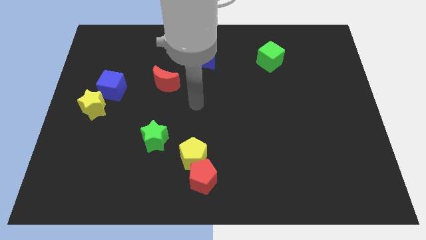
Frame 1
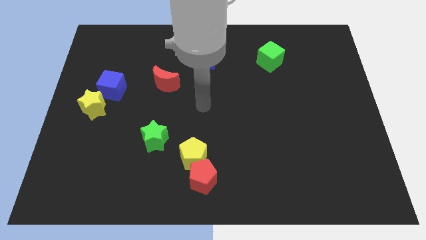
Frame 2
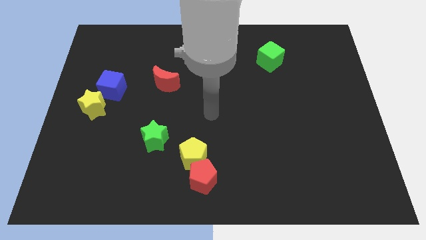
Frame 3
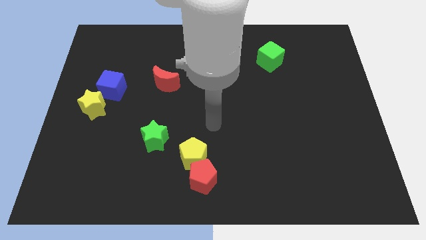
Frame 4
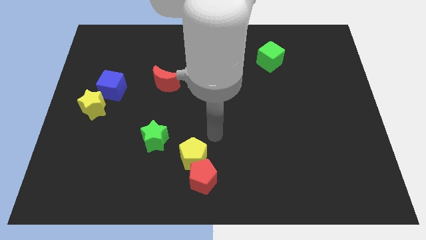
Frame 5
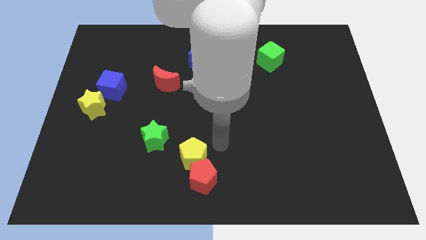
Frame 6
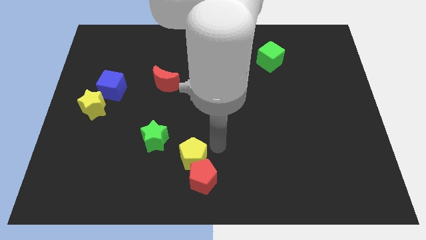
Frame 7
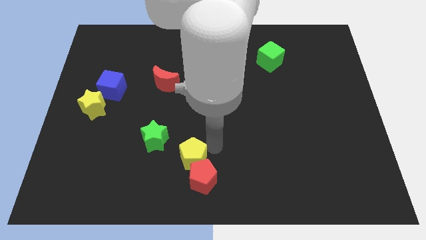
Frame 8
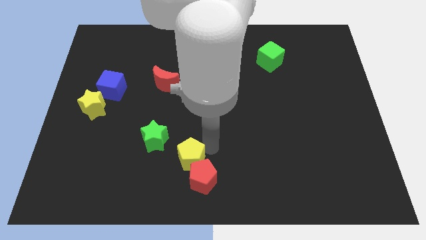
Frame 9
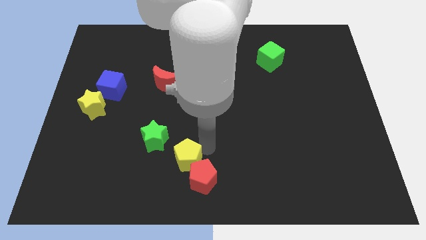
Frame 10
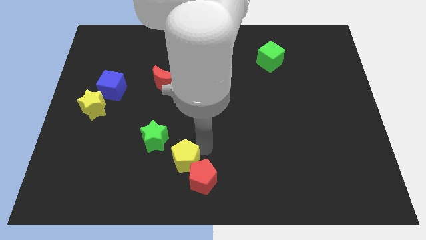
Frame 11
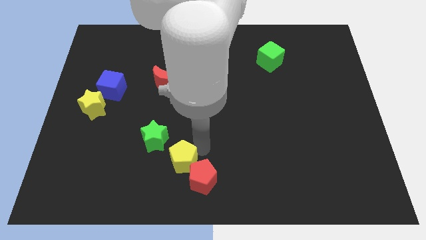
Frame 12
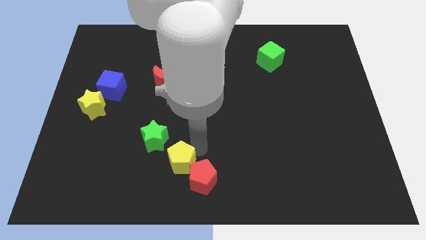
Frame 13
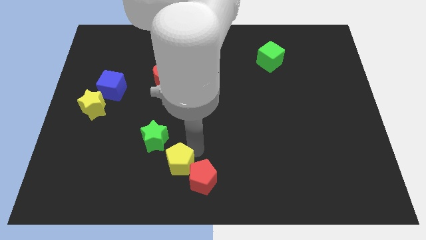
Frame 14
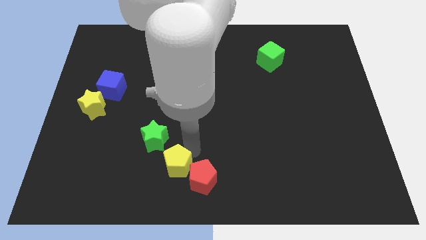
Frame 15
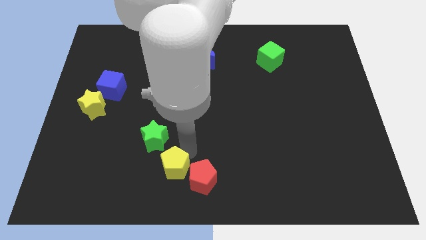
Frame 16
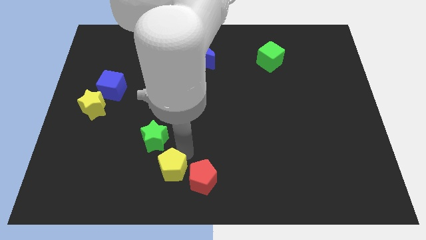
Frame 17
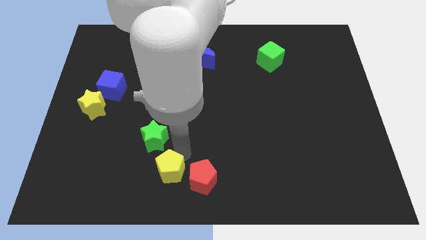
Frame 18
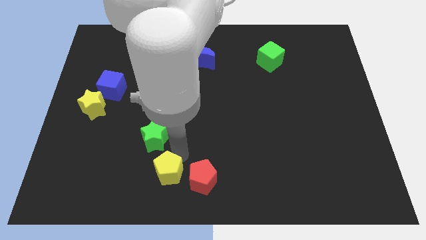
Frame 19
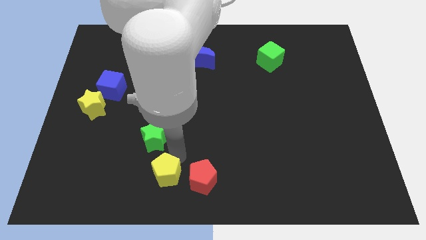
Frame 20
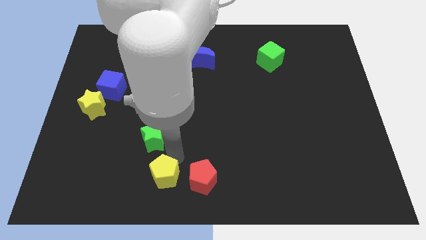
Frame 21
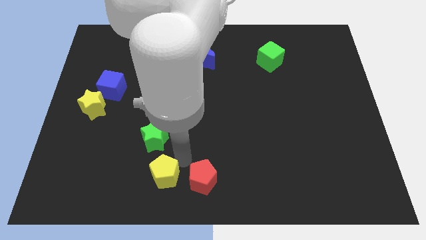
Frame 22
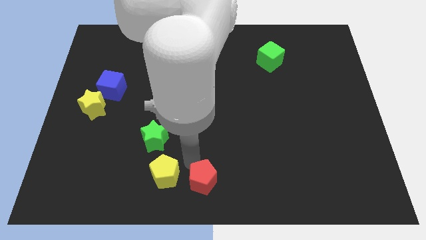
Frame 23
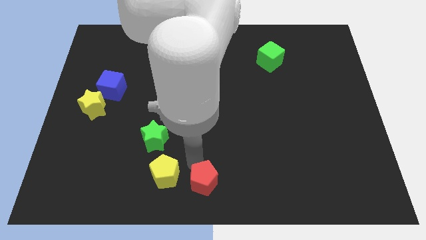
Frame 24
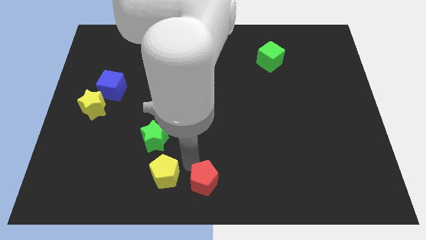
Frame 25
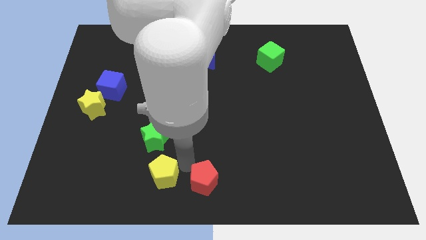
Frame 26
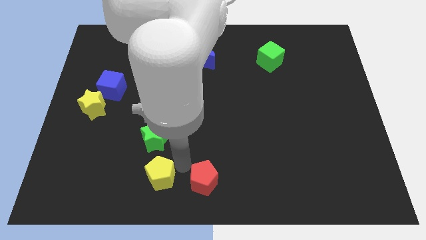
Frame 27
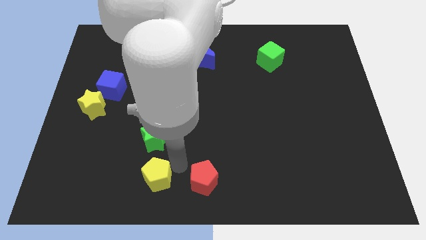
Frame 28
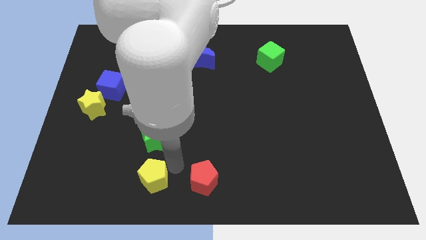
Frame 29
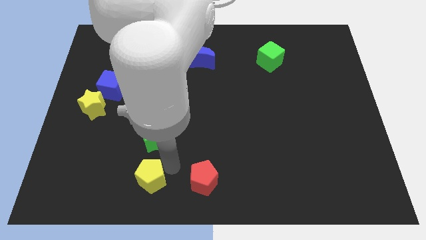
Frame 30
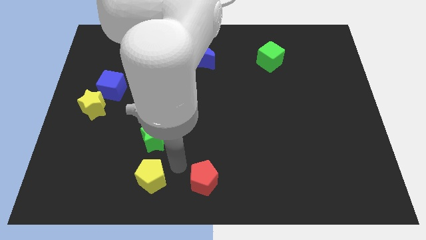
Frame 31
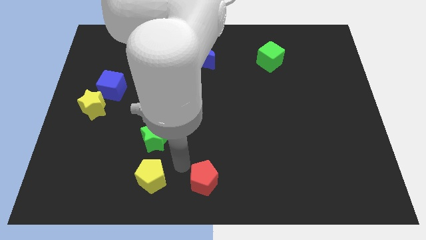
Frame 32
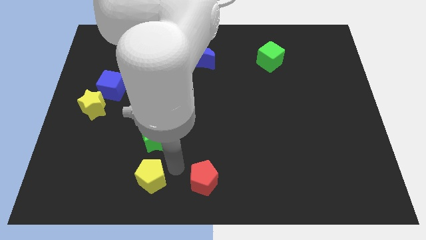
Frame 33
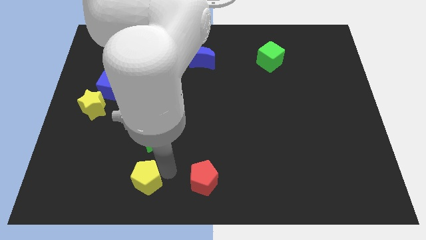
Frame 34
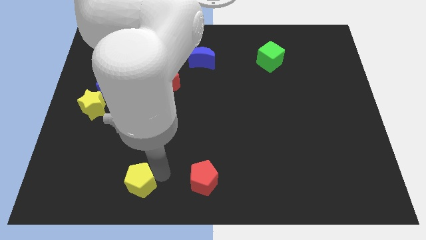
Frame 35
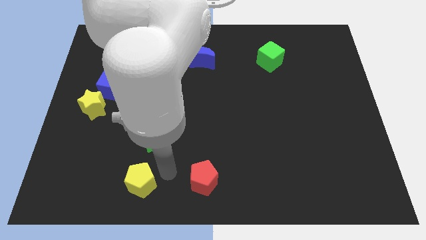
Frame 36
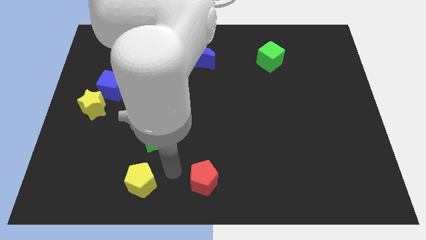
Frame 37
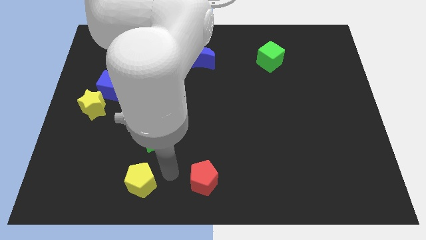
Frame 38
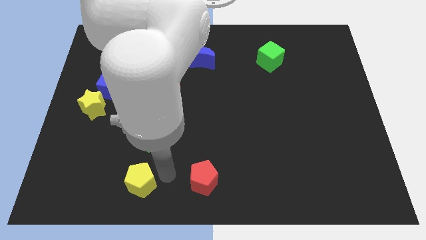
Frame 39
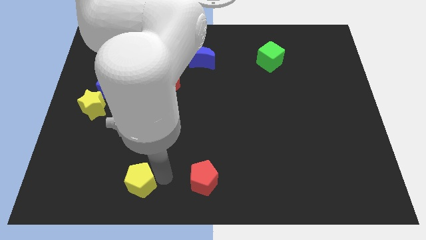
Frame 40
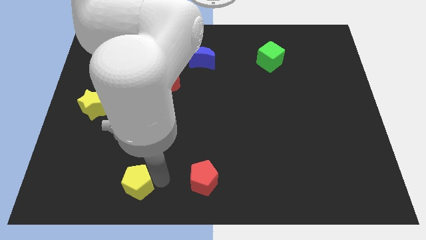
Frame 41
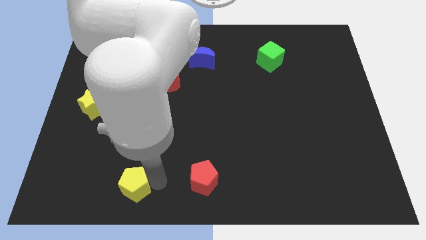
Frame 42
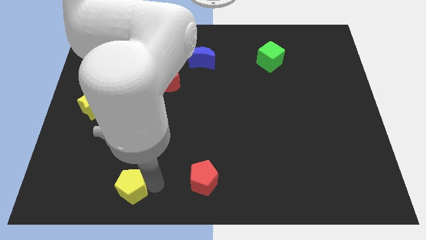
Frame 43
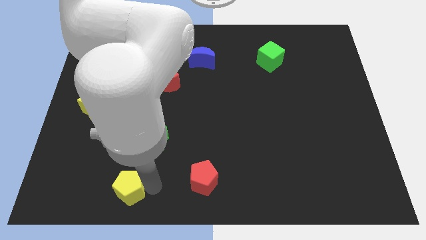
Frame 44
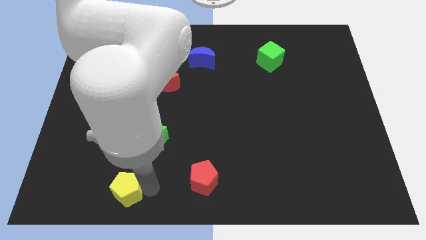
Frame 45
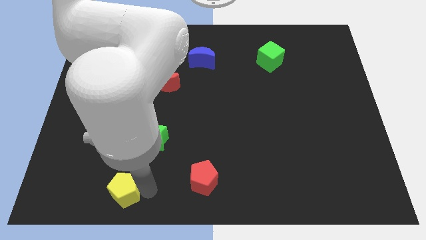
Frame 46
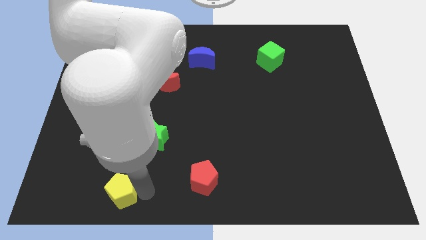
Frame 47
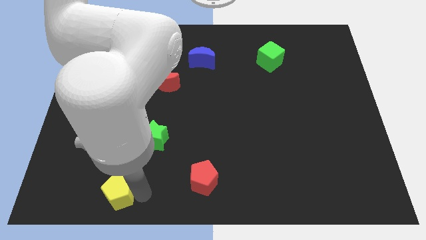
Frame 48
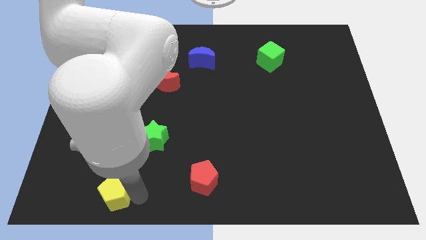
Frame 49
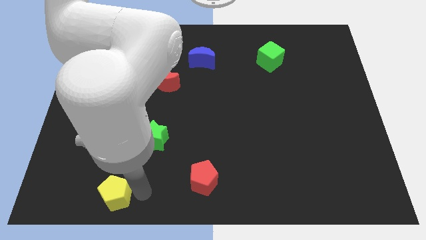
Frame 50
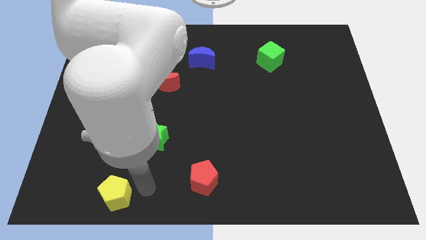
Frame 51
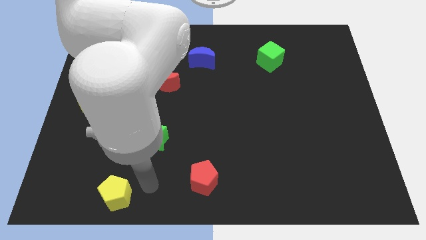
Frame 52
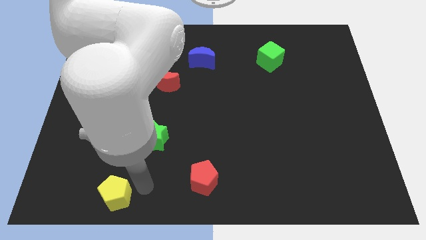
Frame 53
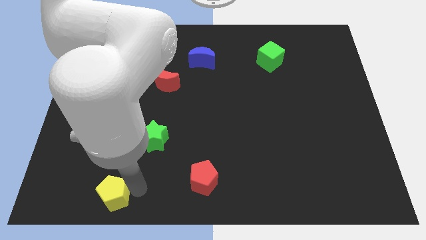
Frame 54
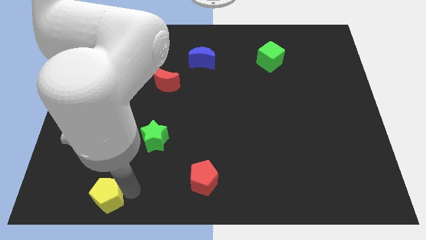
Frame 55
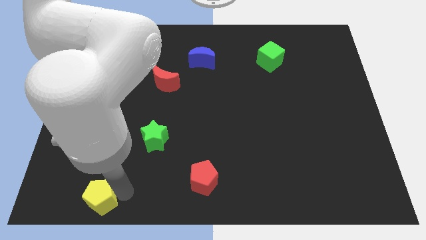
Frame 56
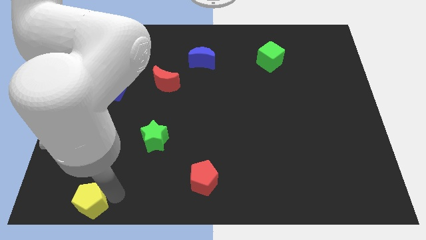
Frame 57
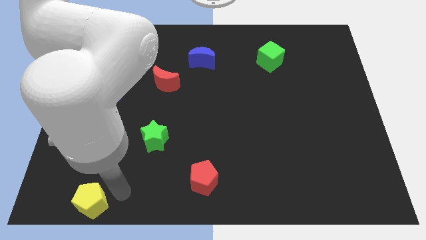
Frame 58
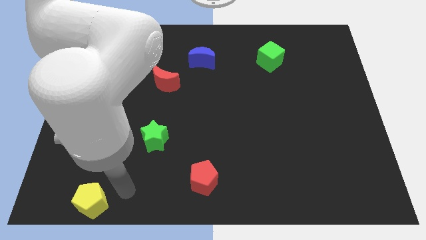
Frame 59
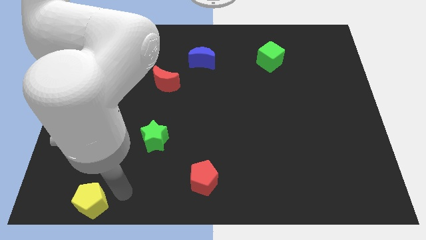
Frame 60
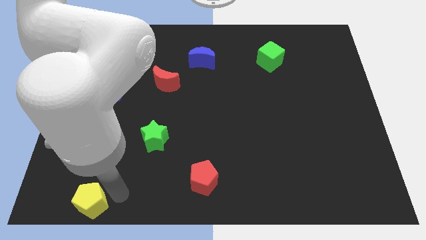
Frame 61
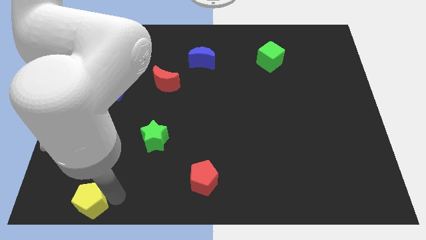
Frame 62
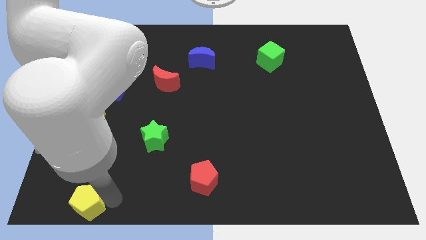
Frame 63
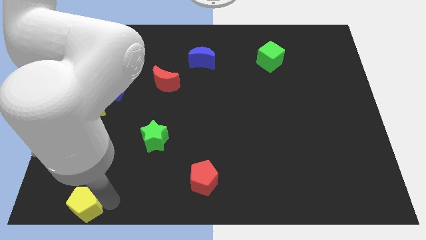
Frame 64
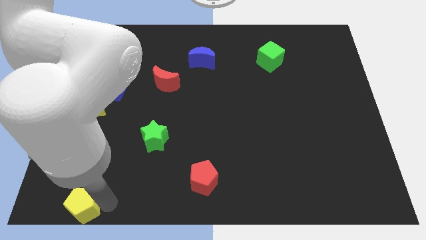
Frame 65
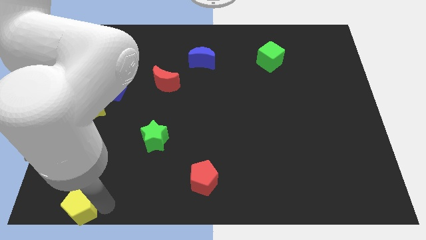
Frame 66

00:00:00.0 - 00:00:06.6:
move the yellow pentagon to the bottom left of the board
